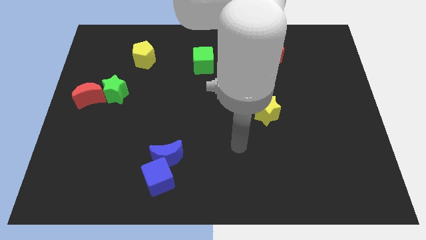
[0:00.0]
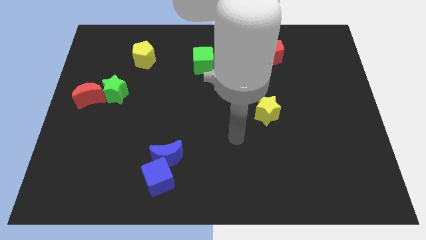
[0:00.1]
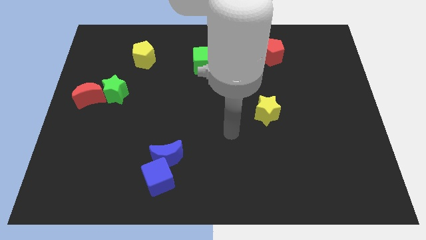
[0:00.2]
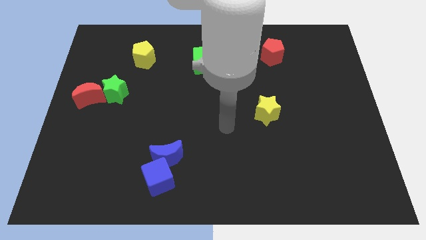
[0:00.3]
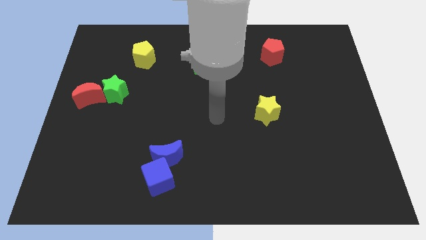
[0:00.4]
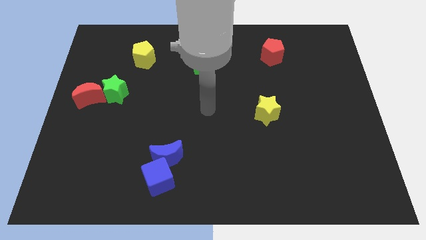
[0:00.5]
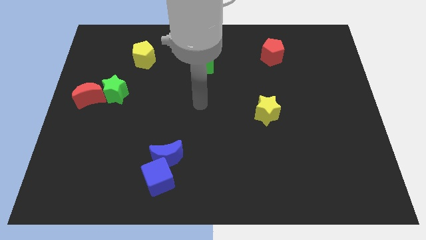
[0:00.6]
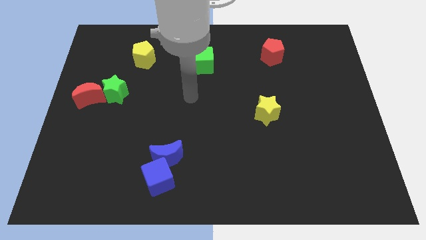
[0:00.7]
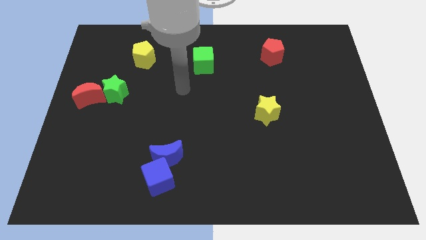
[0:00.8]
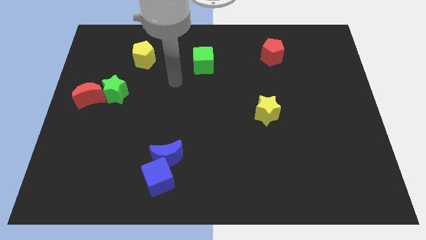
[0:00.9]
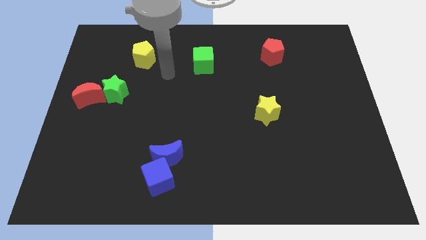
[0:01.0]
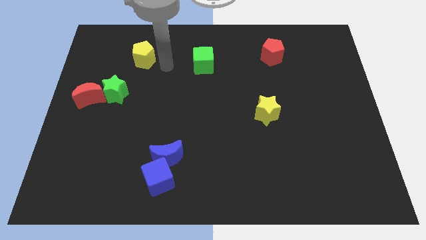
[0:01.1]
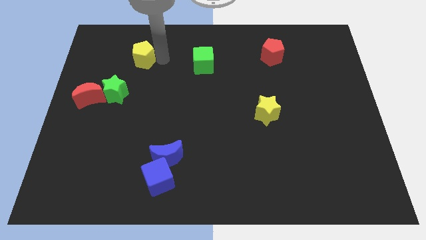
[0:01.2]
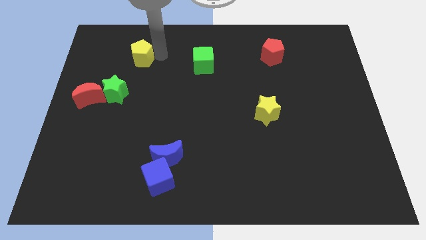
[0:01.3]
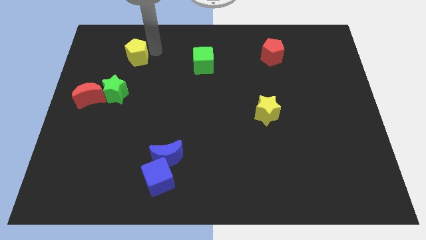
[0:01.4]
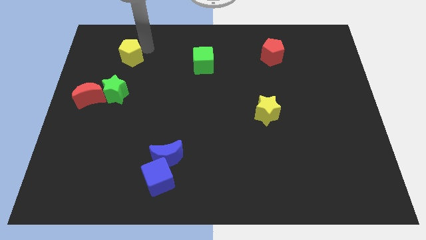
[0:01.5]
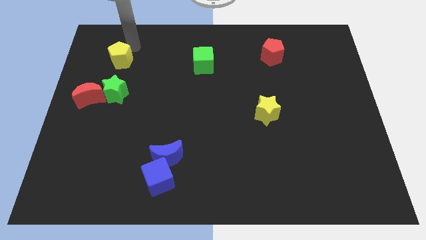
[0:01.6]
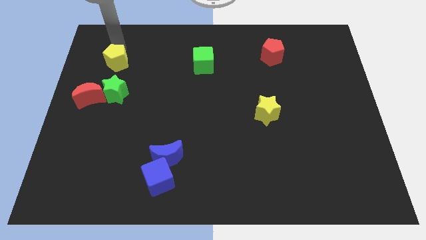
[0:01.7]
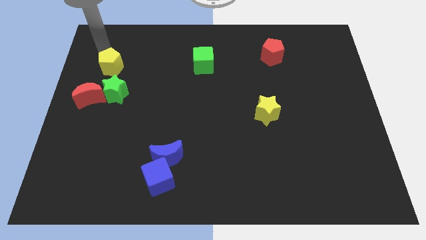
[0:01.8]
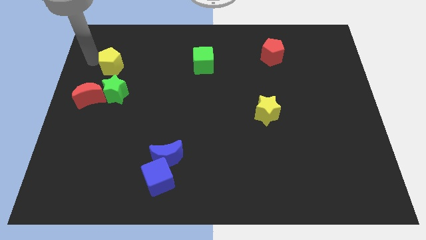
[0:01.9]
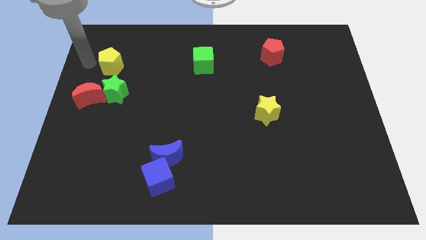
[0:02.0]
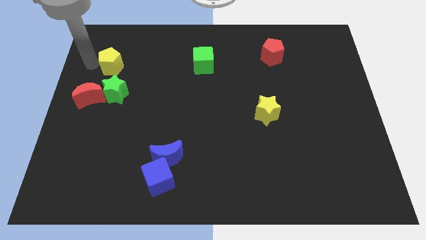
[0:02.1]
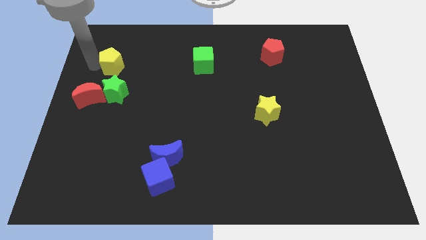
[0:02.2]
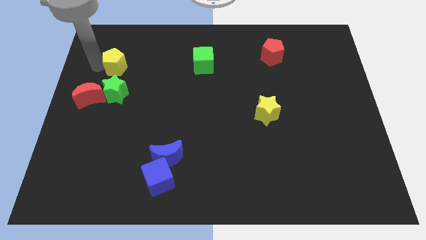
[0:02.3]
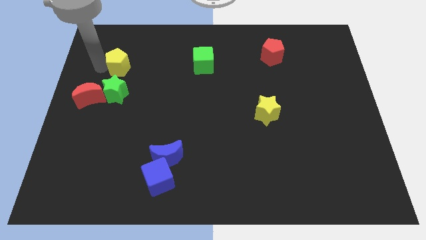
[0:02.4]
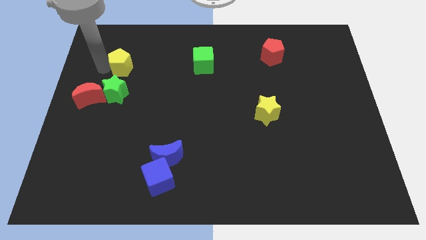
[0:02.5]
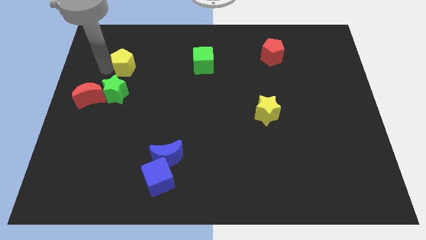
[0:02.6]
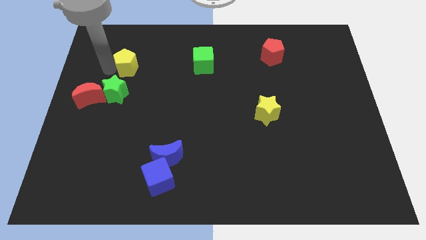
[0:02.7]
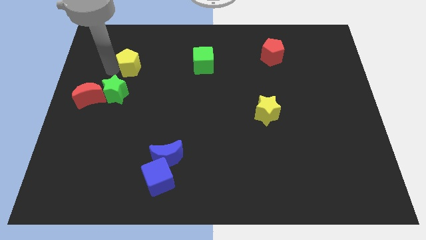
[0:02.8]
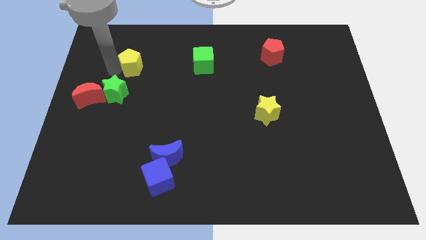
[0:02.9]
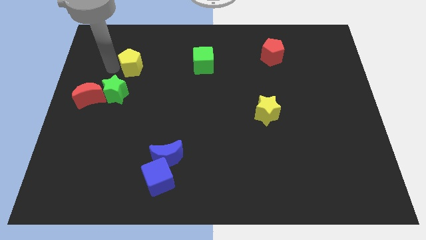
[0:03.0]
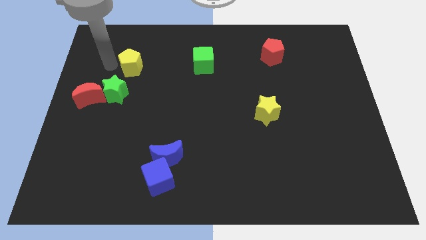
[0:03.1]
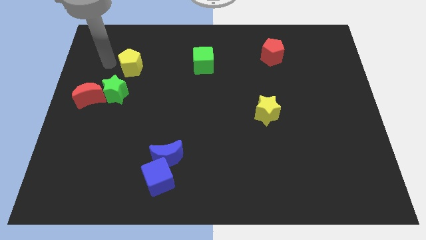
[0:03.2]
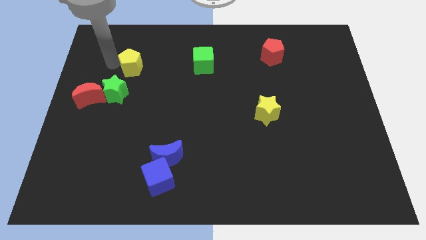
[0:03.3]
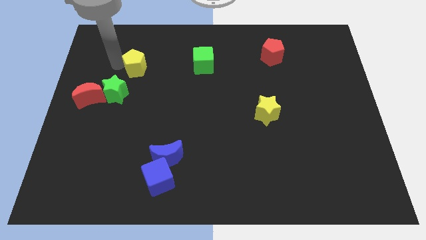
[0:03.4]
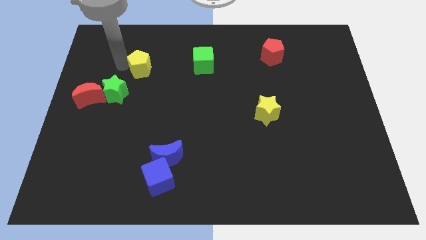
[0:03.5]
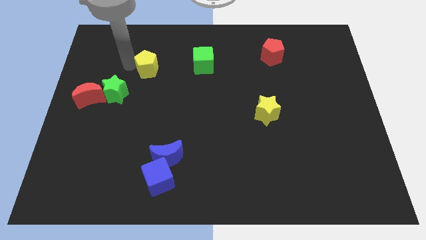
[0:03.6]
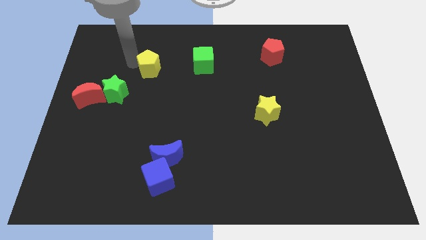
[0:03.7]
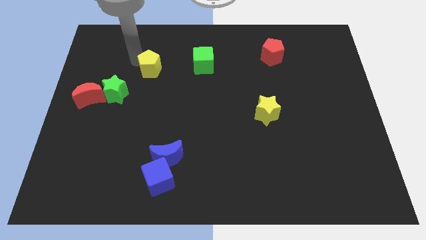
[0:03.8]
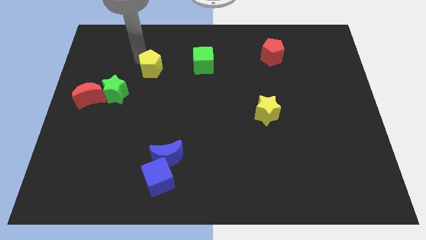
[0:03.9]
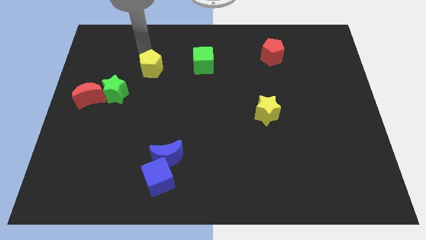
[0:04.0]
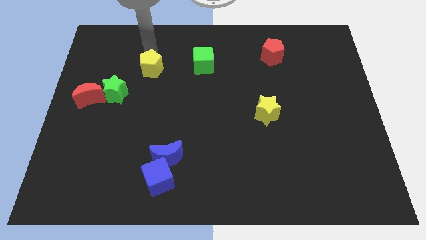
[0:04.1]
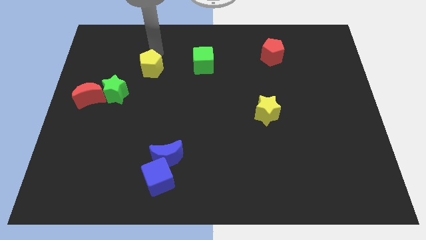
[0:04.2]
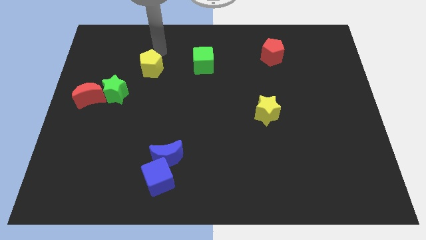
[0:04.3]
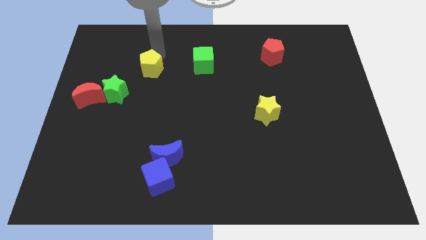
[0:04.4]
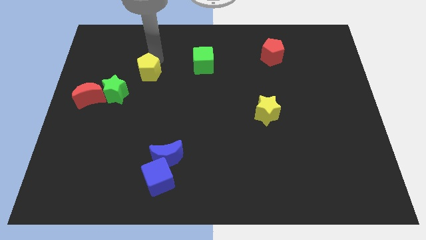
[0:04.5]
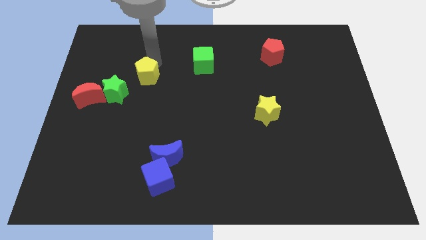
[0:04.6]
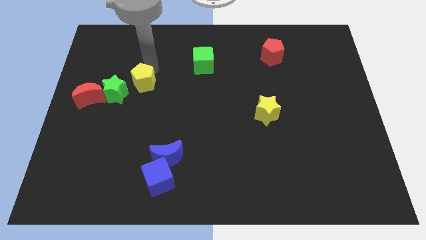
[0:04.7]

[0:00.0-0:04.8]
push the yellow pentagon down somewhat

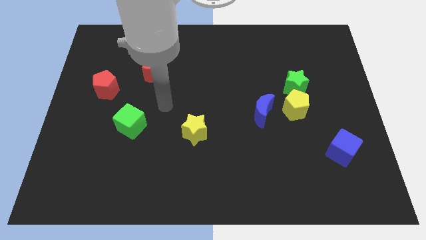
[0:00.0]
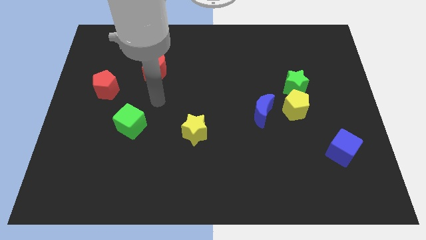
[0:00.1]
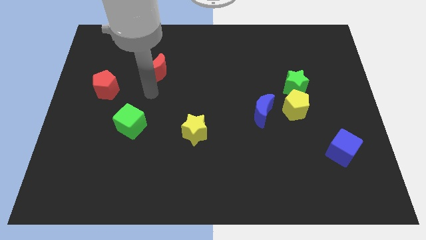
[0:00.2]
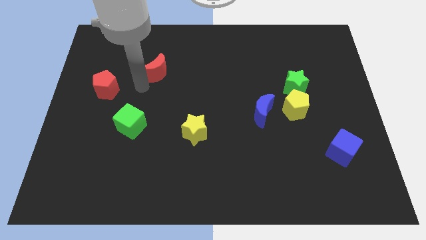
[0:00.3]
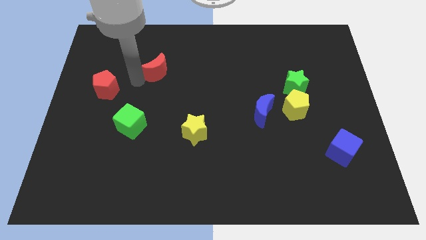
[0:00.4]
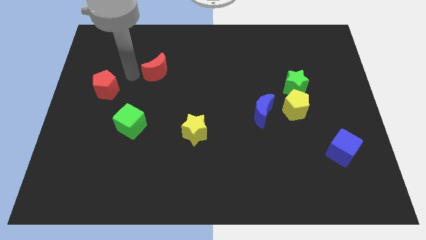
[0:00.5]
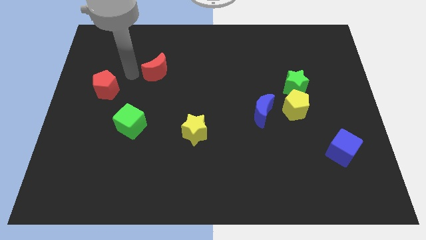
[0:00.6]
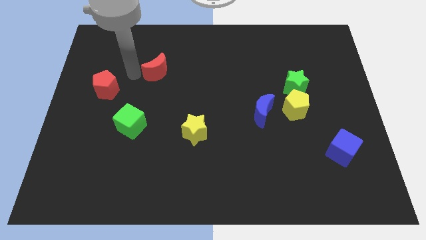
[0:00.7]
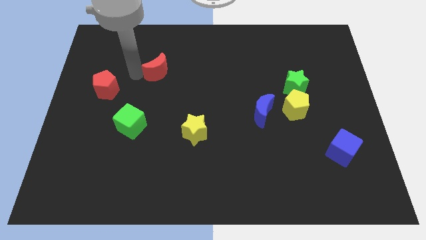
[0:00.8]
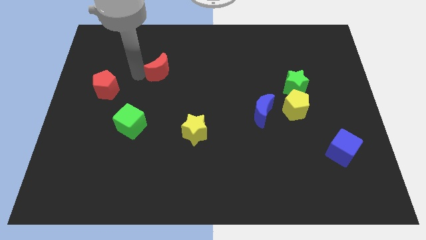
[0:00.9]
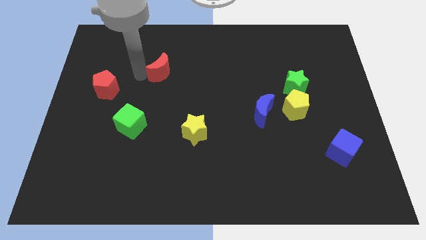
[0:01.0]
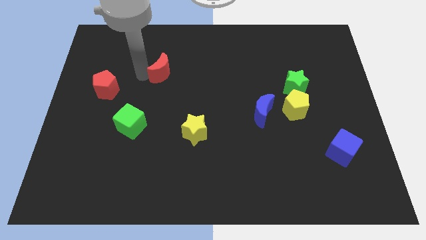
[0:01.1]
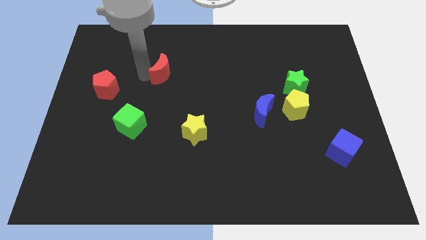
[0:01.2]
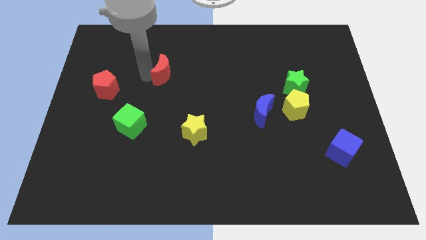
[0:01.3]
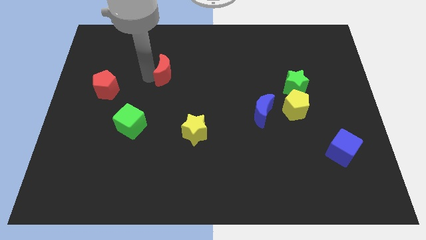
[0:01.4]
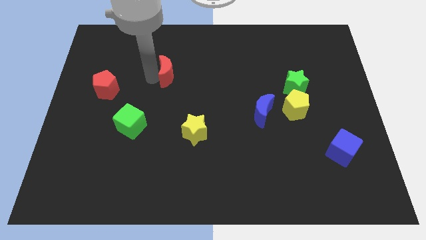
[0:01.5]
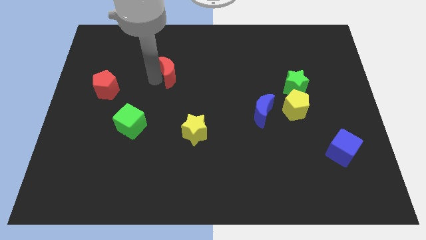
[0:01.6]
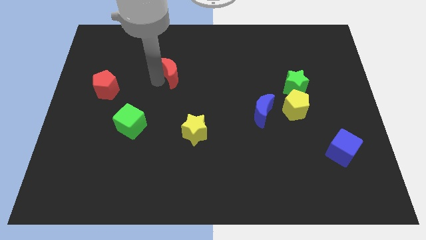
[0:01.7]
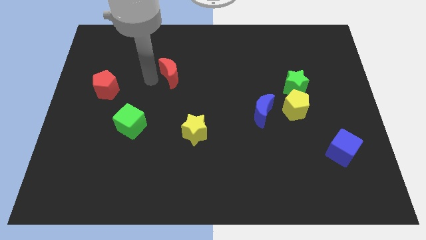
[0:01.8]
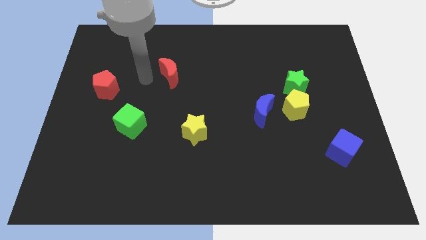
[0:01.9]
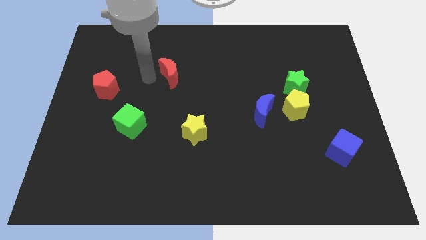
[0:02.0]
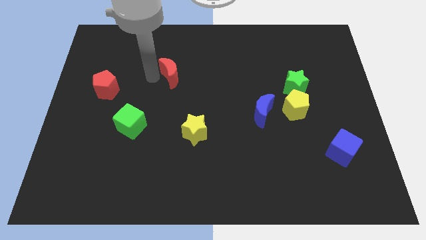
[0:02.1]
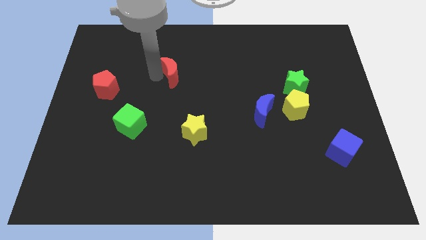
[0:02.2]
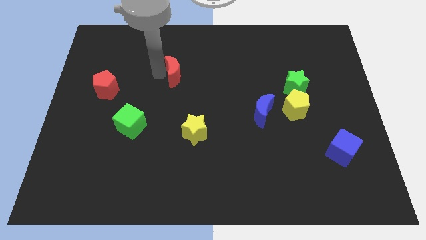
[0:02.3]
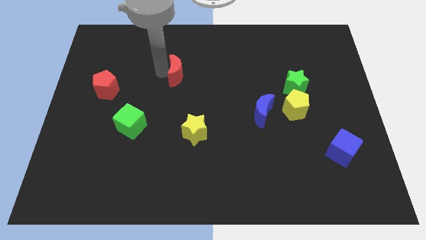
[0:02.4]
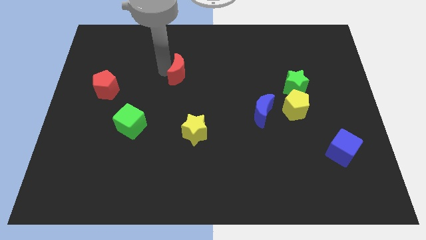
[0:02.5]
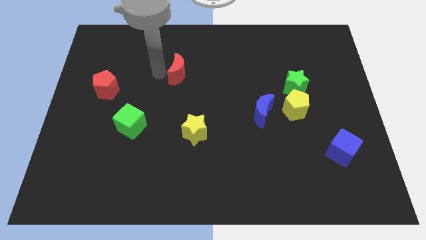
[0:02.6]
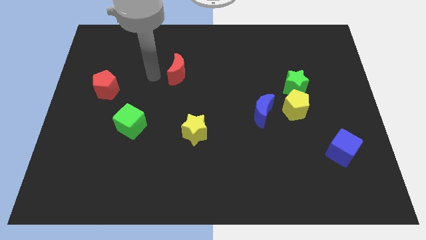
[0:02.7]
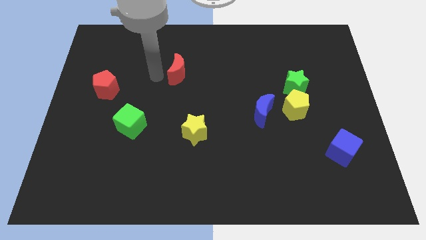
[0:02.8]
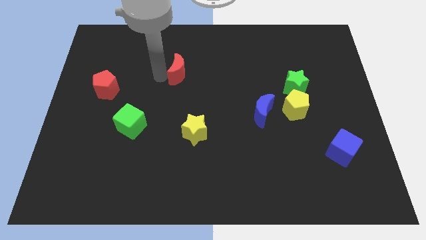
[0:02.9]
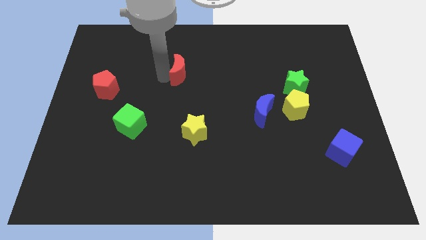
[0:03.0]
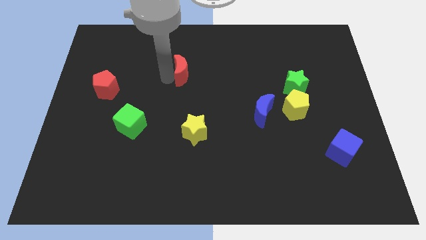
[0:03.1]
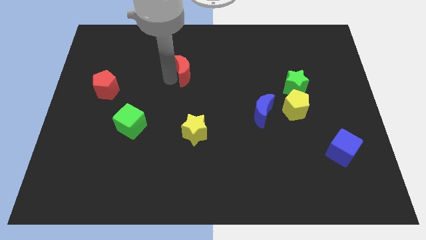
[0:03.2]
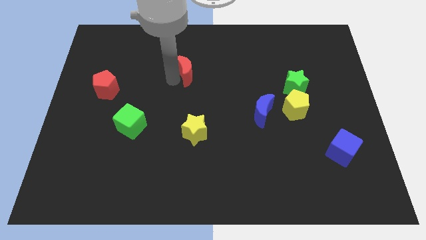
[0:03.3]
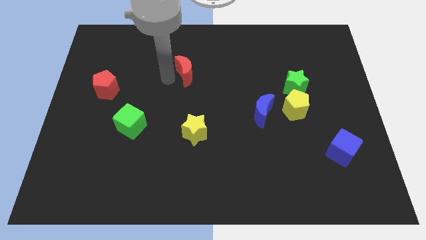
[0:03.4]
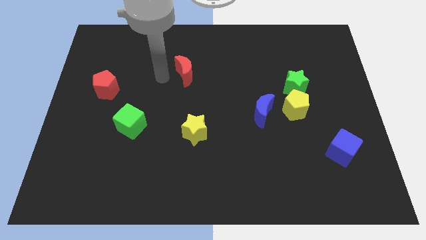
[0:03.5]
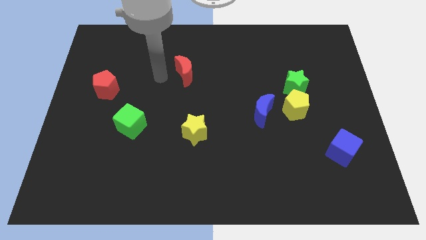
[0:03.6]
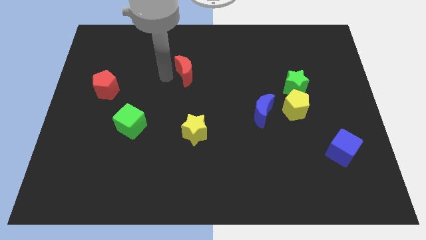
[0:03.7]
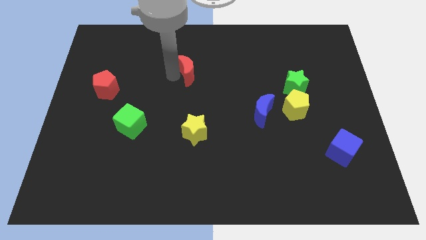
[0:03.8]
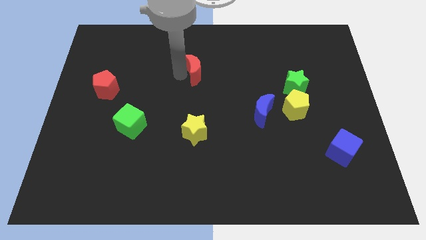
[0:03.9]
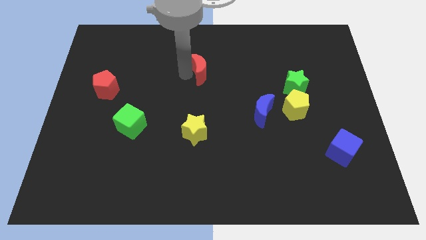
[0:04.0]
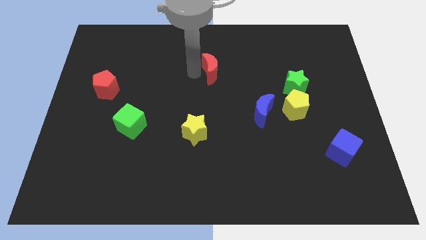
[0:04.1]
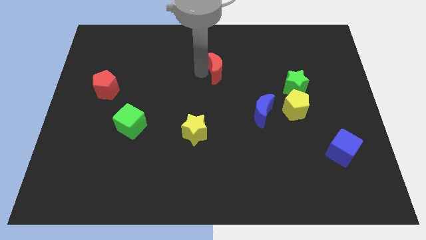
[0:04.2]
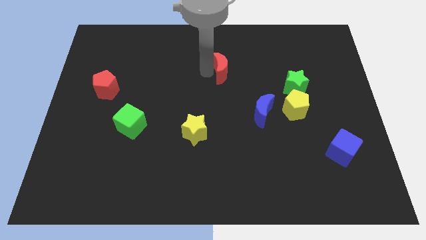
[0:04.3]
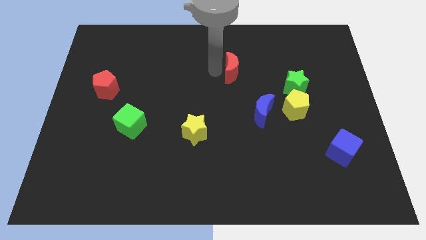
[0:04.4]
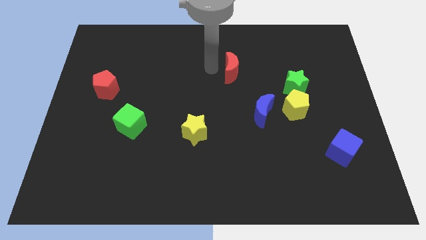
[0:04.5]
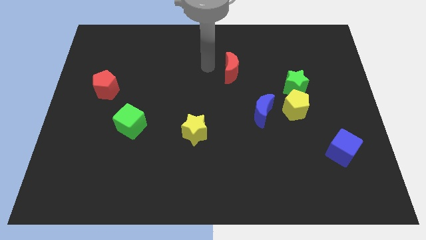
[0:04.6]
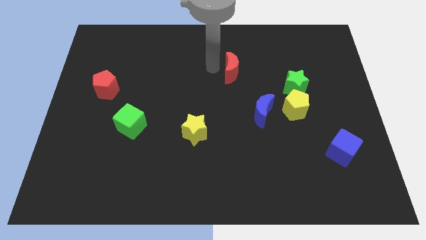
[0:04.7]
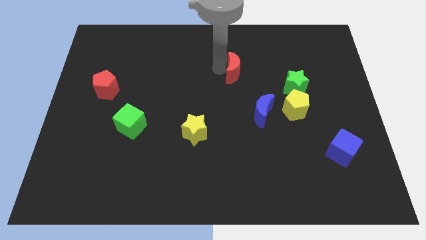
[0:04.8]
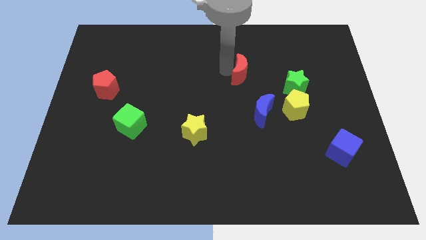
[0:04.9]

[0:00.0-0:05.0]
slide the red moon to the right
